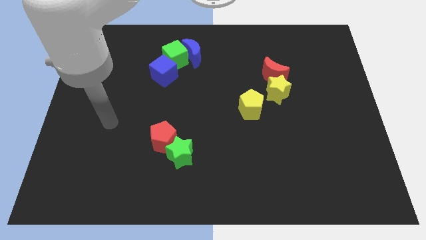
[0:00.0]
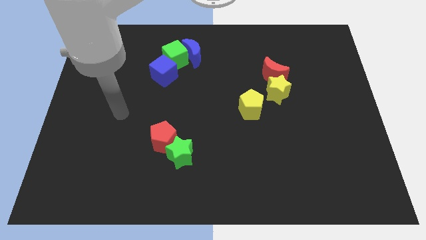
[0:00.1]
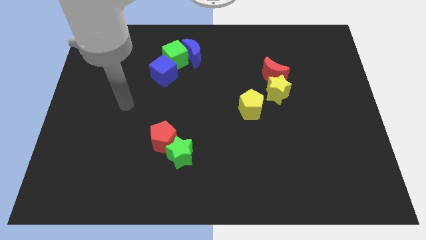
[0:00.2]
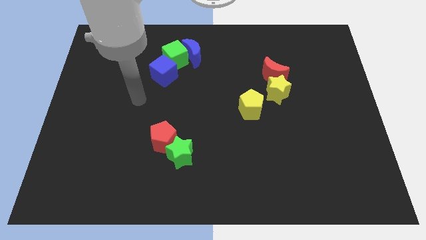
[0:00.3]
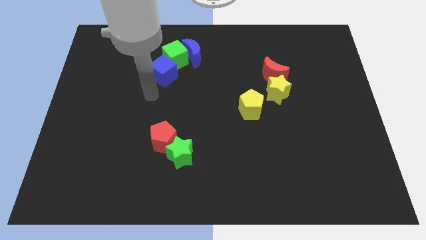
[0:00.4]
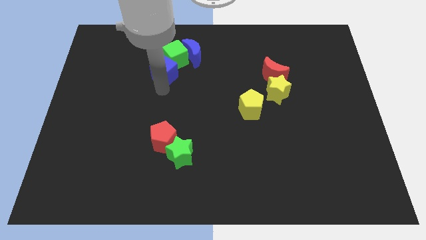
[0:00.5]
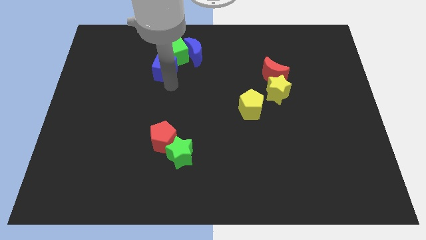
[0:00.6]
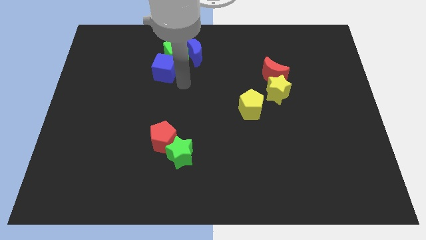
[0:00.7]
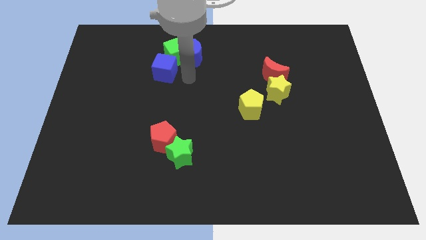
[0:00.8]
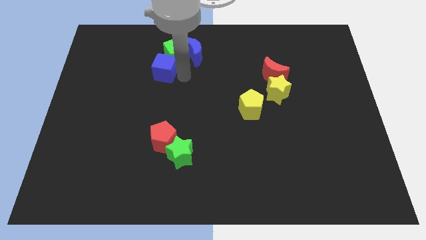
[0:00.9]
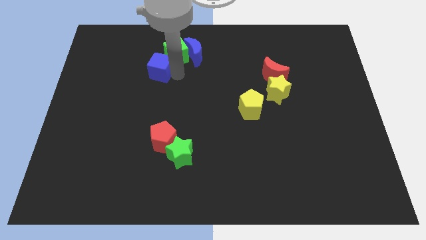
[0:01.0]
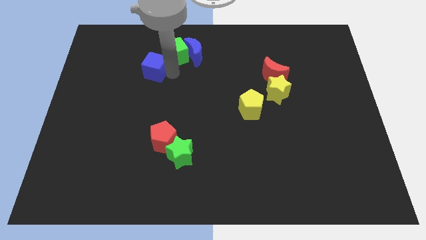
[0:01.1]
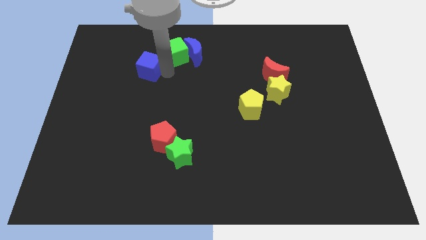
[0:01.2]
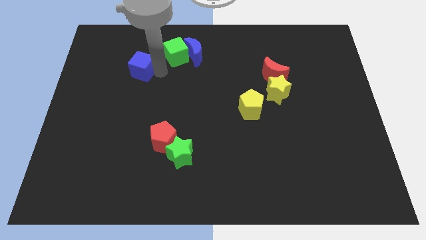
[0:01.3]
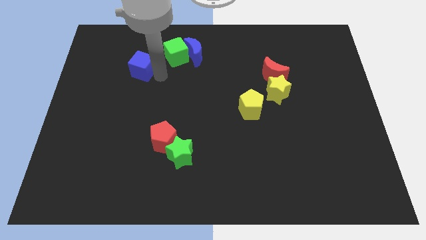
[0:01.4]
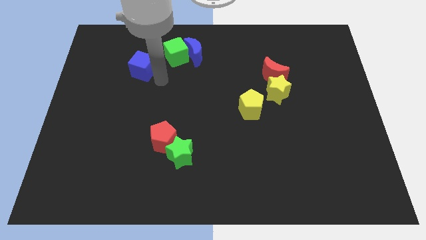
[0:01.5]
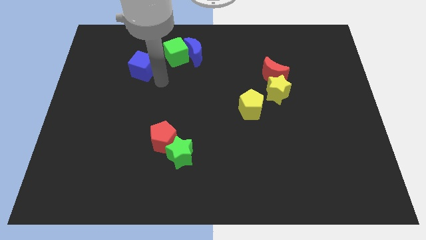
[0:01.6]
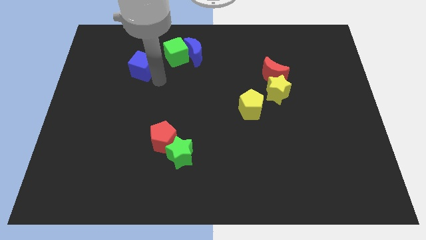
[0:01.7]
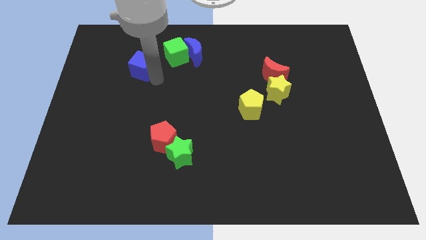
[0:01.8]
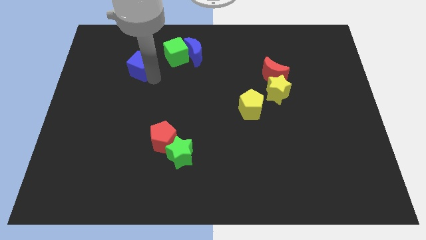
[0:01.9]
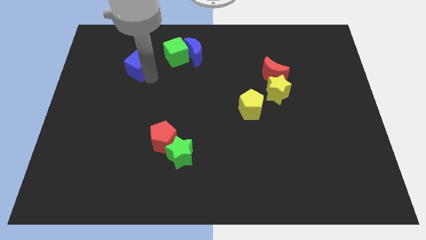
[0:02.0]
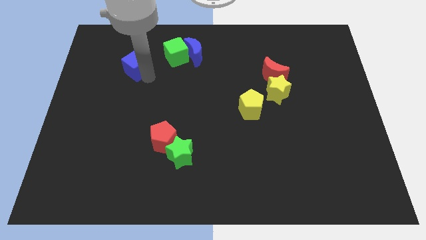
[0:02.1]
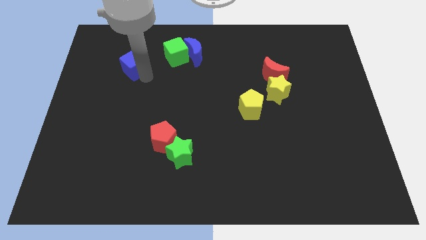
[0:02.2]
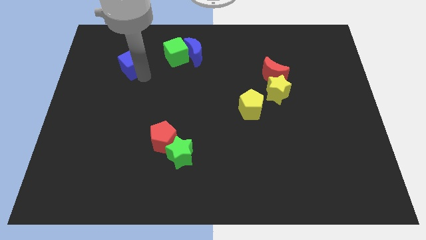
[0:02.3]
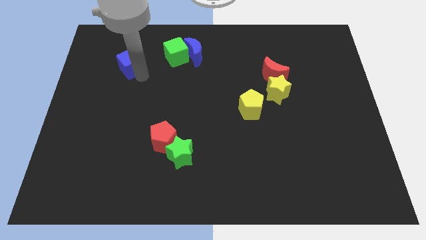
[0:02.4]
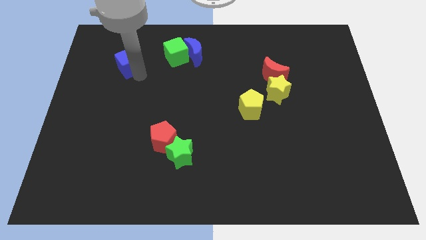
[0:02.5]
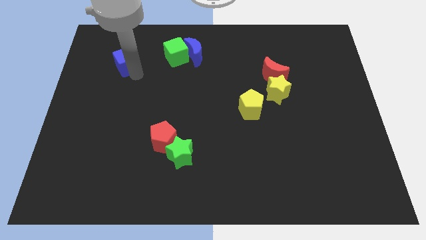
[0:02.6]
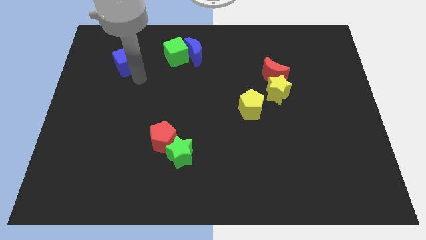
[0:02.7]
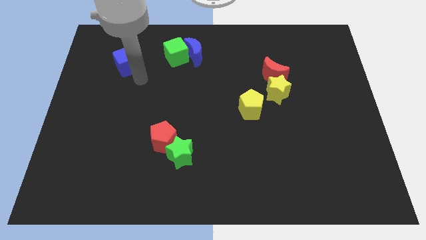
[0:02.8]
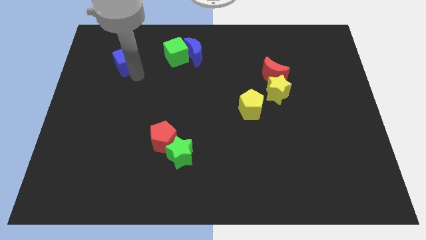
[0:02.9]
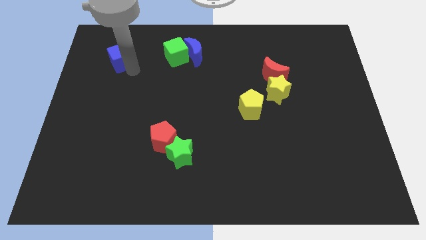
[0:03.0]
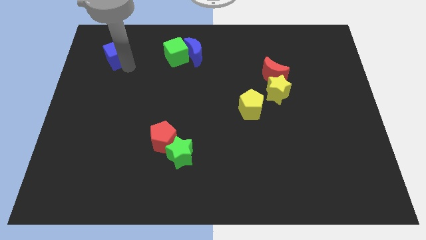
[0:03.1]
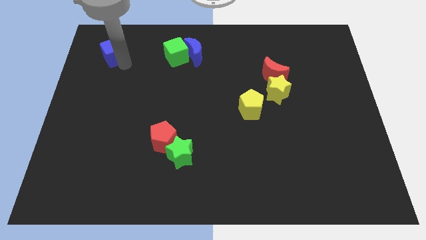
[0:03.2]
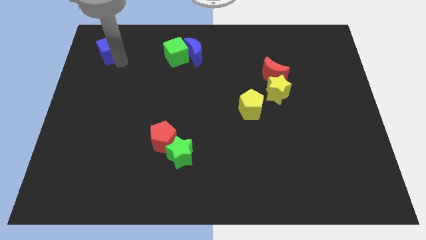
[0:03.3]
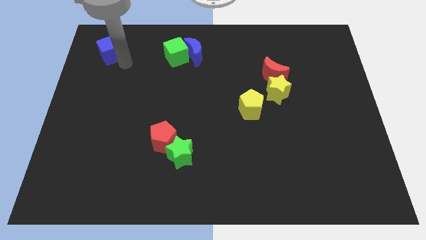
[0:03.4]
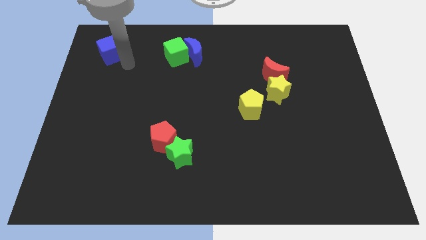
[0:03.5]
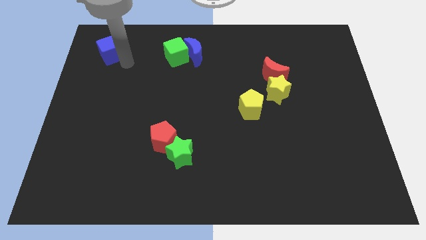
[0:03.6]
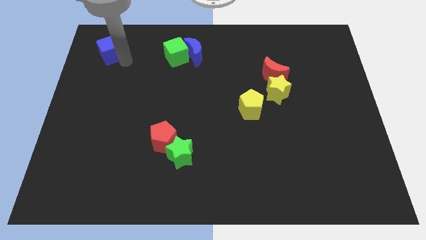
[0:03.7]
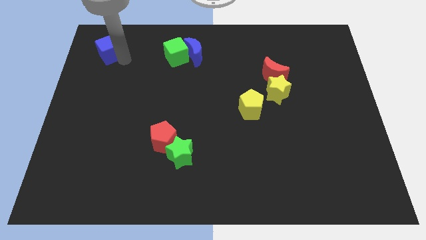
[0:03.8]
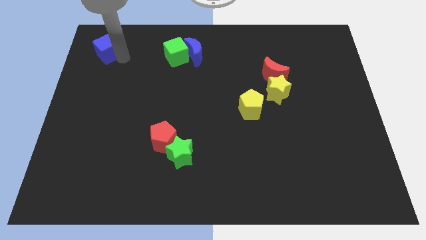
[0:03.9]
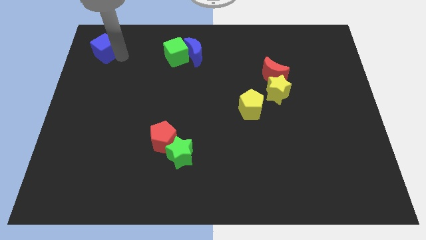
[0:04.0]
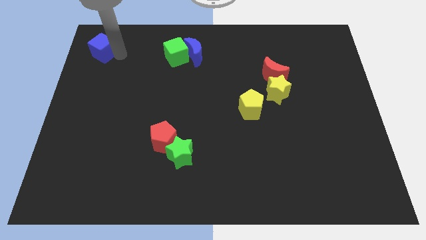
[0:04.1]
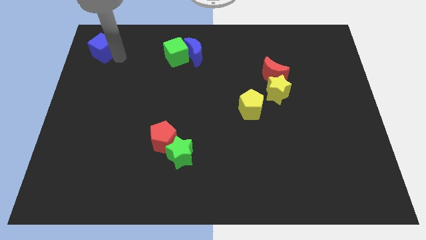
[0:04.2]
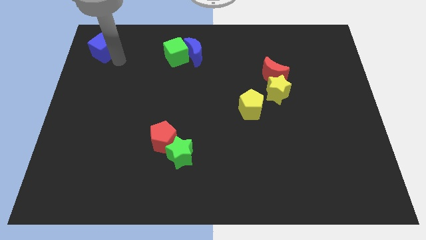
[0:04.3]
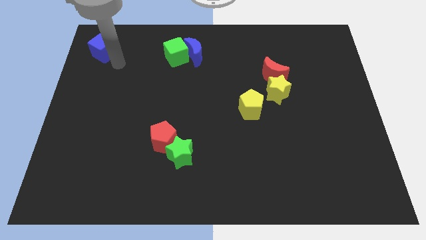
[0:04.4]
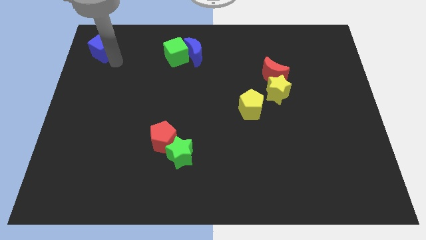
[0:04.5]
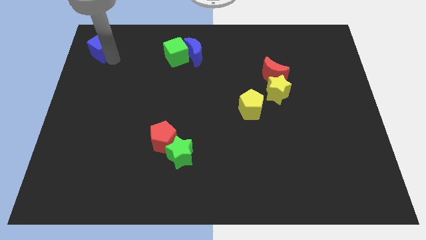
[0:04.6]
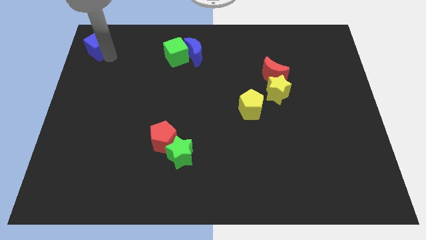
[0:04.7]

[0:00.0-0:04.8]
push the blue cube to the top left corner

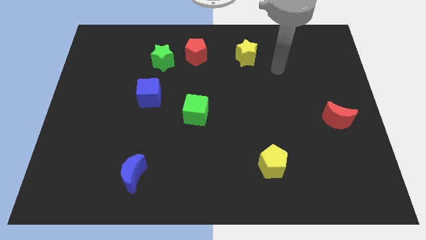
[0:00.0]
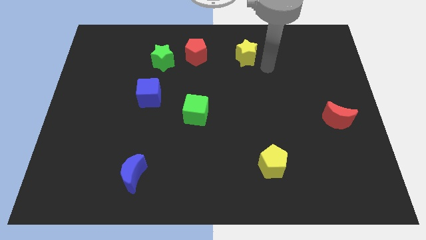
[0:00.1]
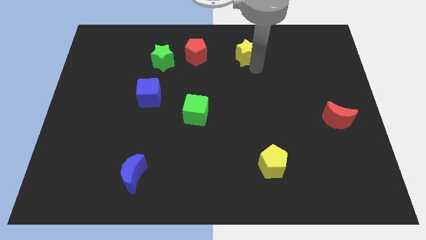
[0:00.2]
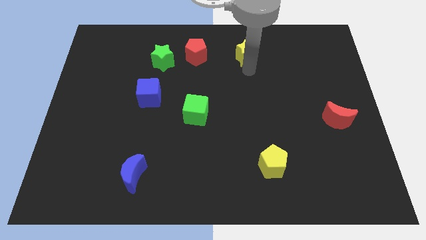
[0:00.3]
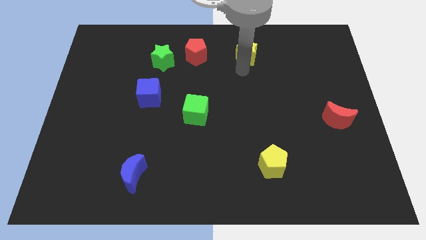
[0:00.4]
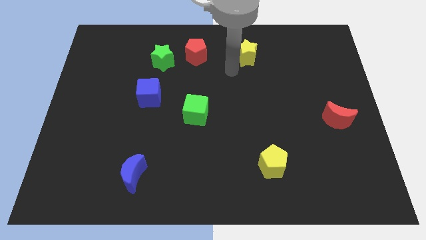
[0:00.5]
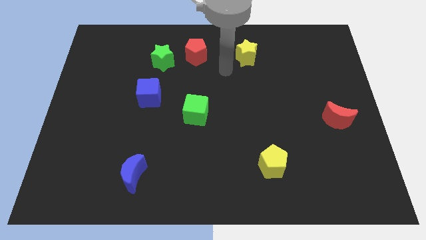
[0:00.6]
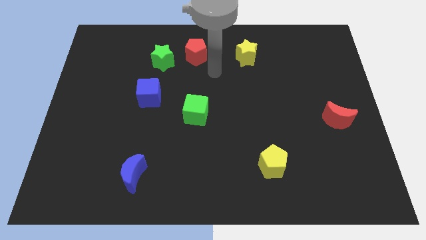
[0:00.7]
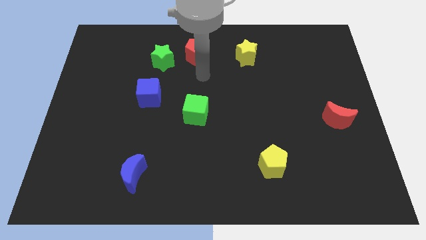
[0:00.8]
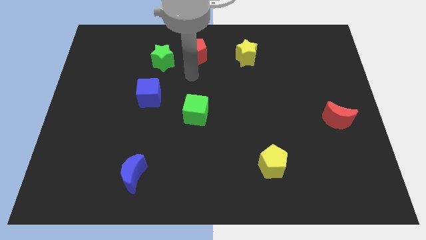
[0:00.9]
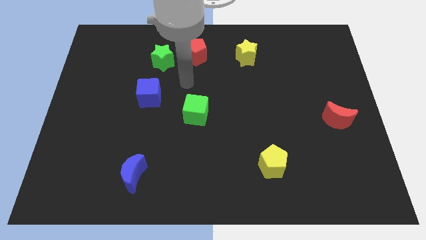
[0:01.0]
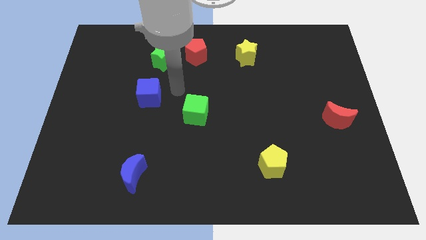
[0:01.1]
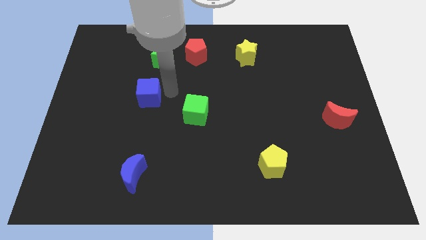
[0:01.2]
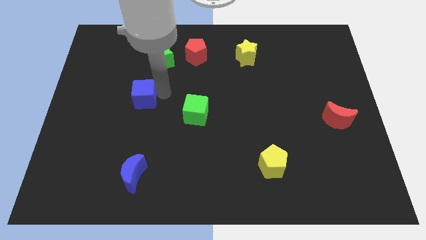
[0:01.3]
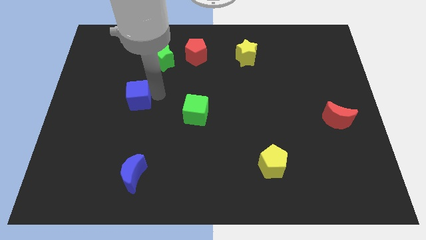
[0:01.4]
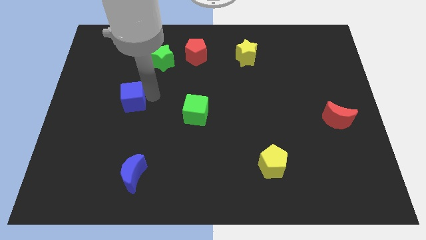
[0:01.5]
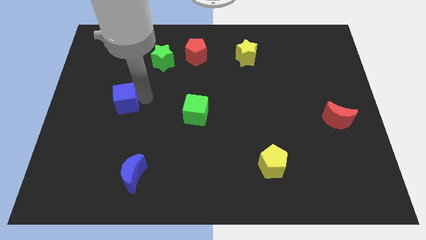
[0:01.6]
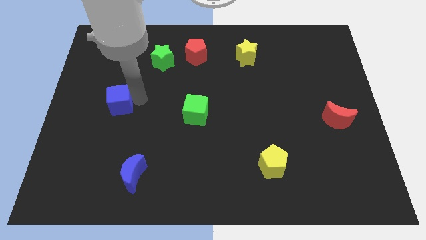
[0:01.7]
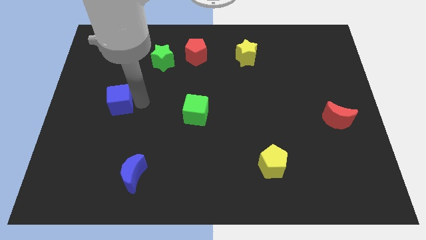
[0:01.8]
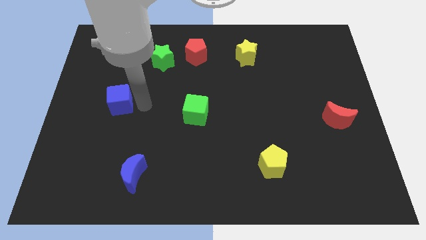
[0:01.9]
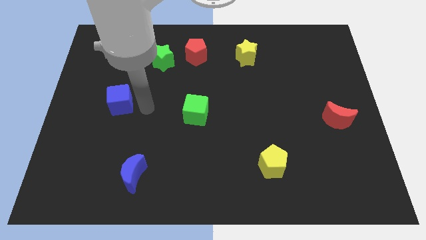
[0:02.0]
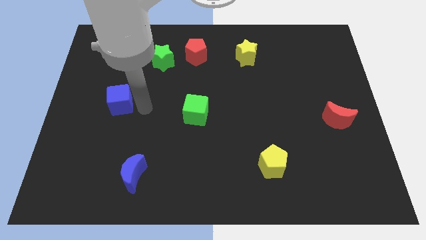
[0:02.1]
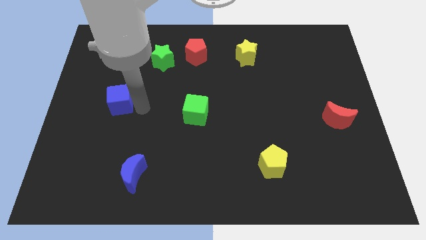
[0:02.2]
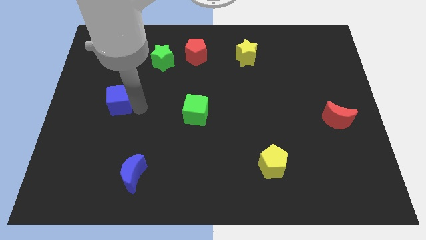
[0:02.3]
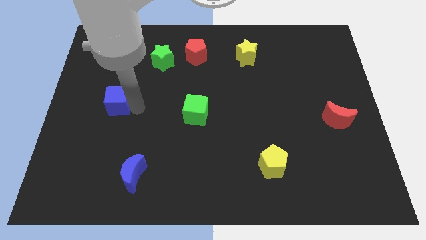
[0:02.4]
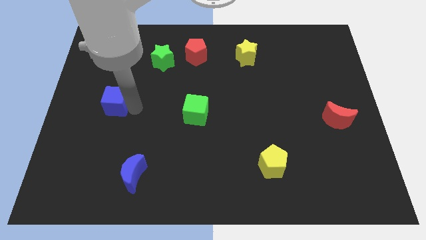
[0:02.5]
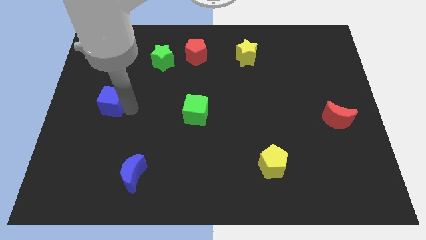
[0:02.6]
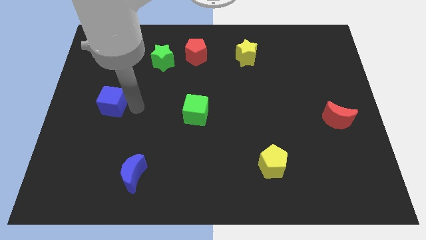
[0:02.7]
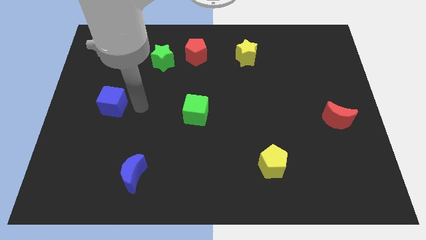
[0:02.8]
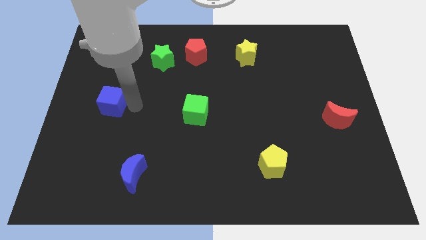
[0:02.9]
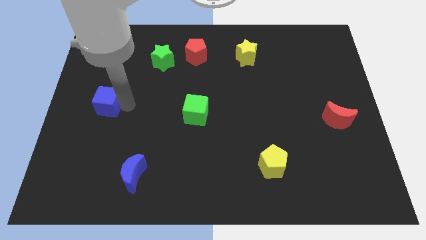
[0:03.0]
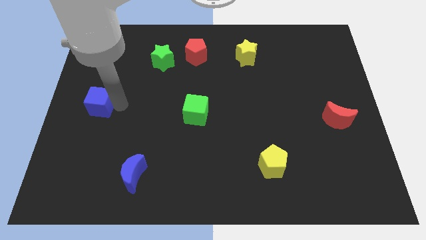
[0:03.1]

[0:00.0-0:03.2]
push the blue cube to the left side of the board
